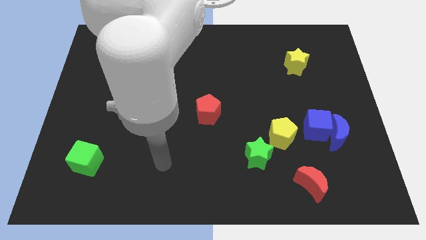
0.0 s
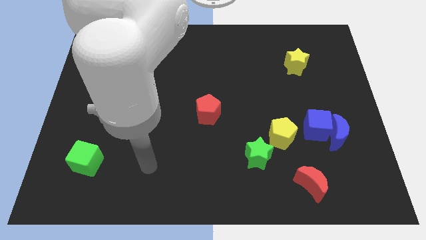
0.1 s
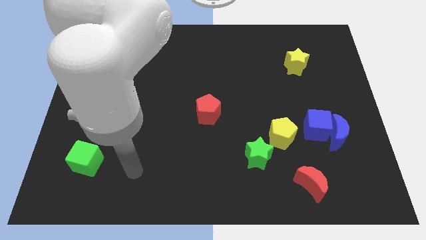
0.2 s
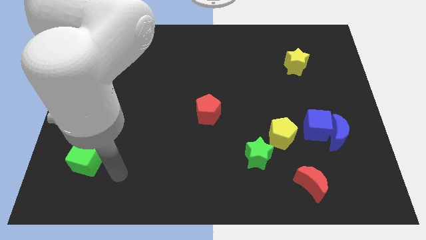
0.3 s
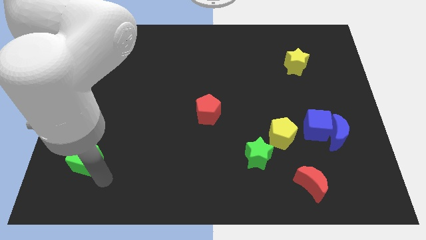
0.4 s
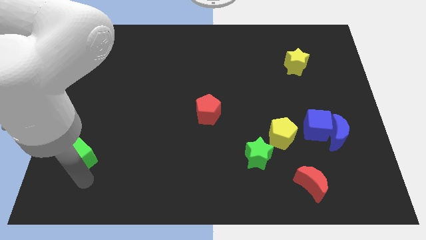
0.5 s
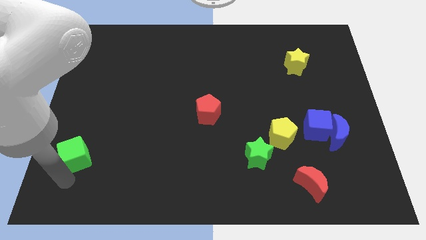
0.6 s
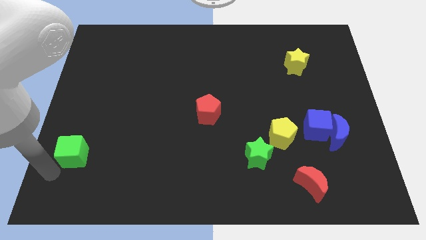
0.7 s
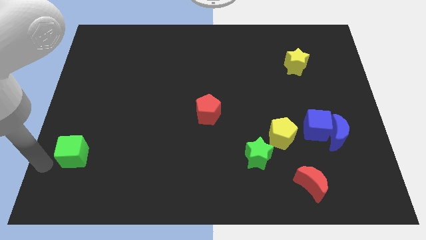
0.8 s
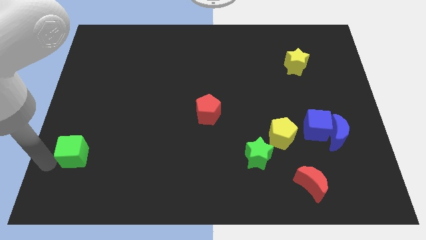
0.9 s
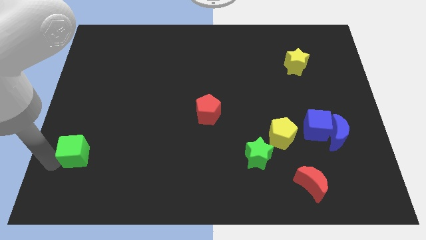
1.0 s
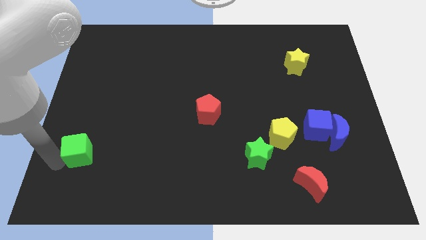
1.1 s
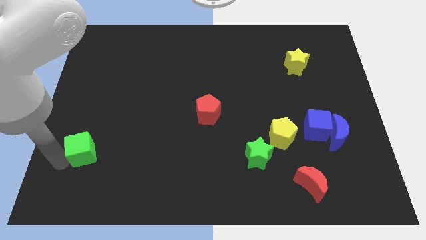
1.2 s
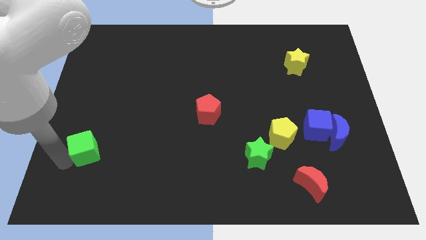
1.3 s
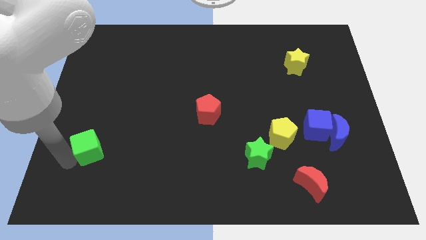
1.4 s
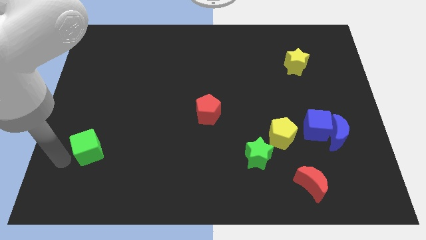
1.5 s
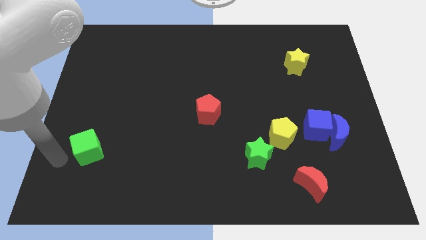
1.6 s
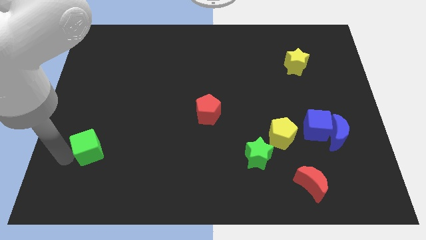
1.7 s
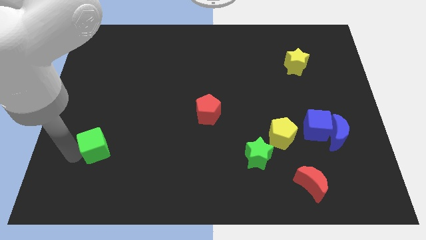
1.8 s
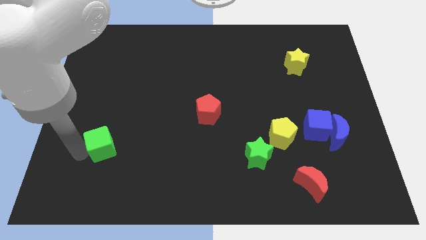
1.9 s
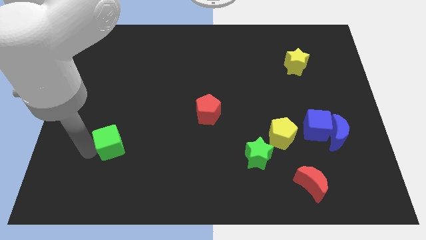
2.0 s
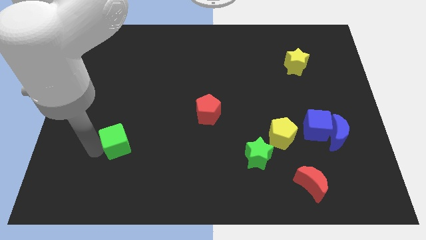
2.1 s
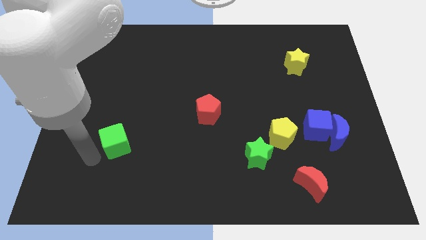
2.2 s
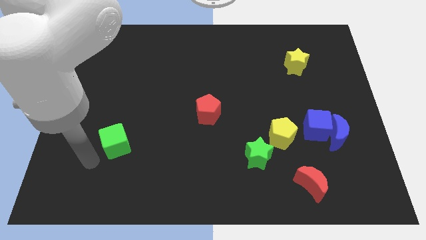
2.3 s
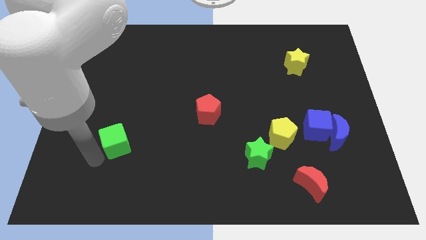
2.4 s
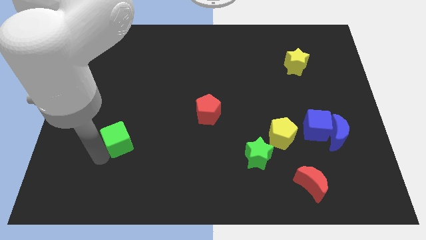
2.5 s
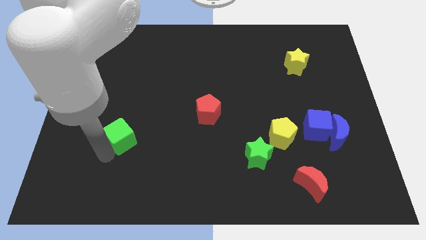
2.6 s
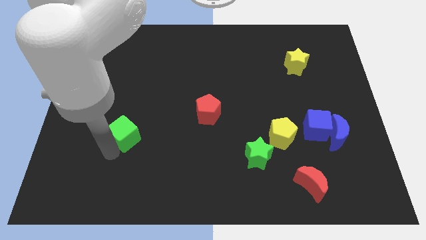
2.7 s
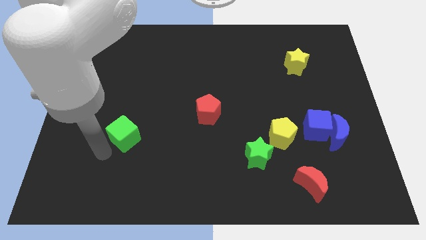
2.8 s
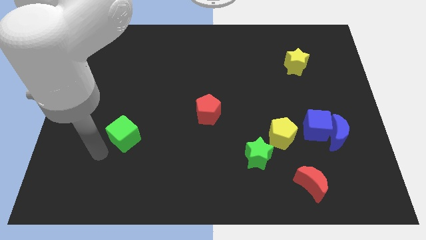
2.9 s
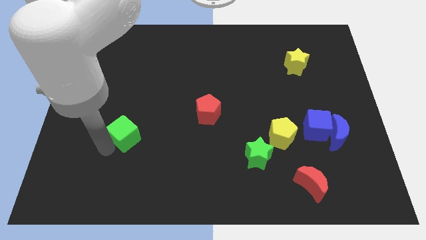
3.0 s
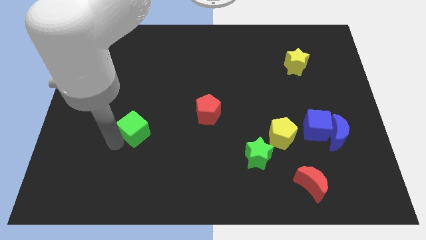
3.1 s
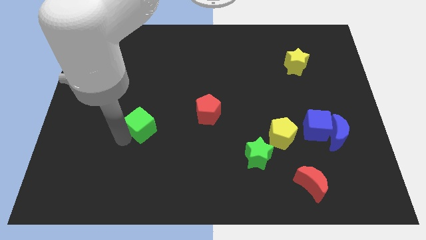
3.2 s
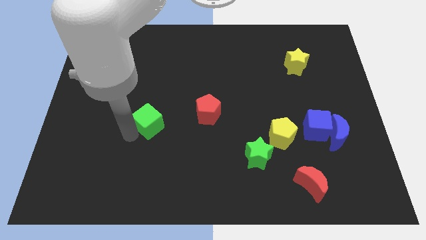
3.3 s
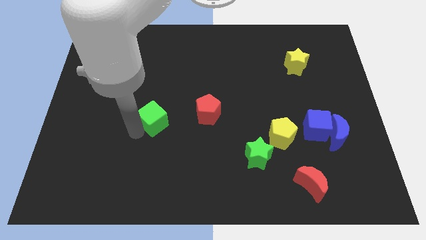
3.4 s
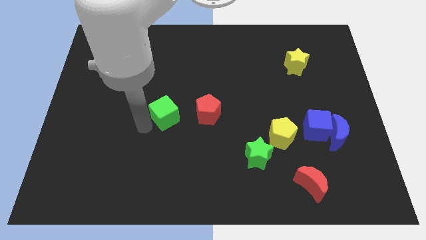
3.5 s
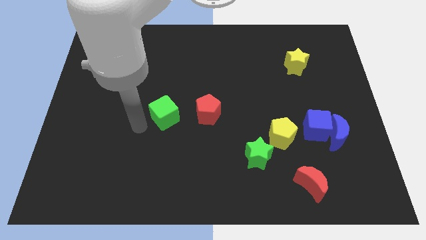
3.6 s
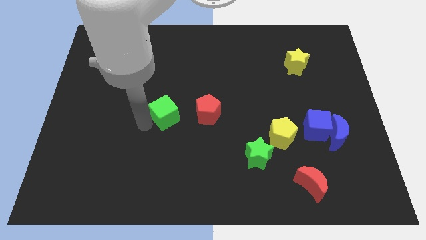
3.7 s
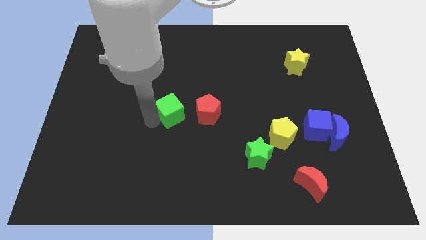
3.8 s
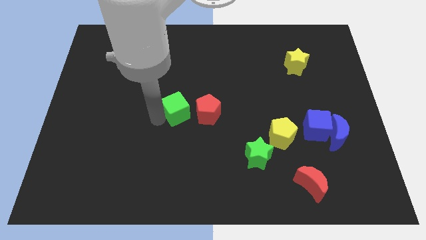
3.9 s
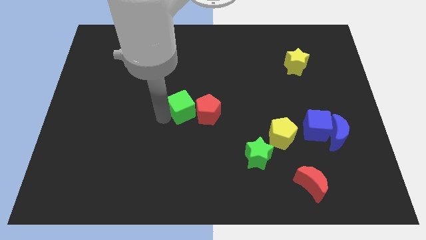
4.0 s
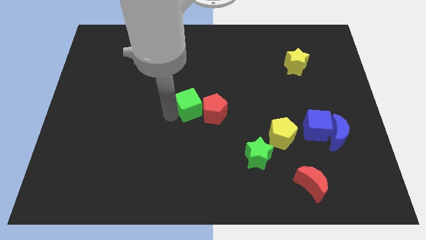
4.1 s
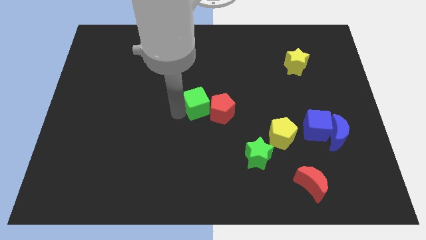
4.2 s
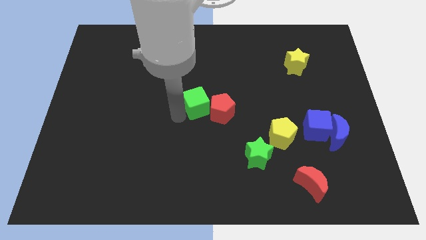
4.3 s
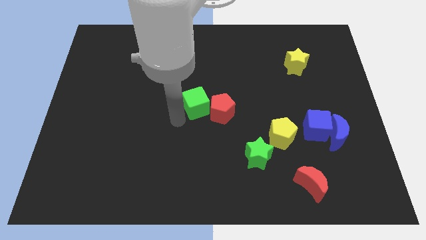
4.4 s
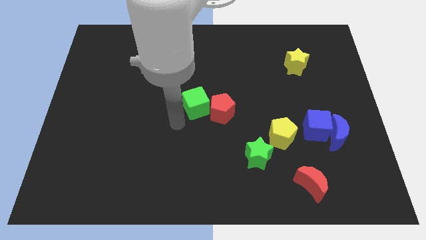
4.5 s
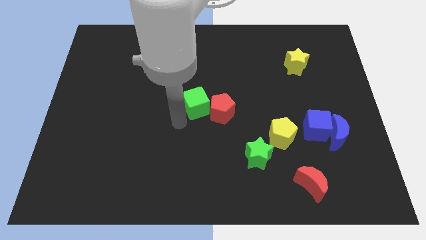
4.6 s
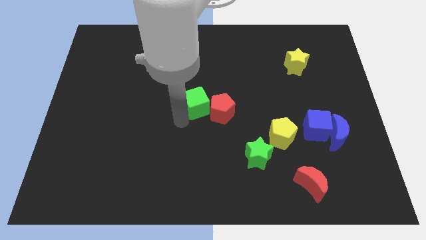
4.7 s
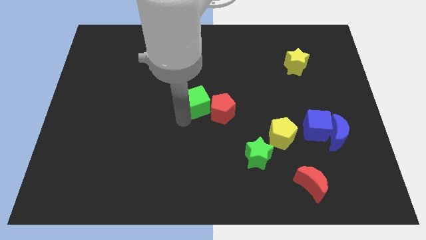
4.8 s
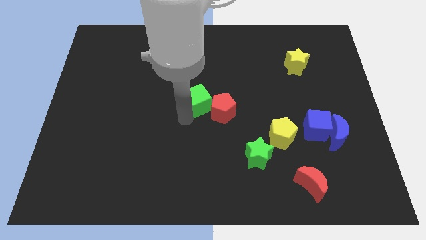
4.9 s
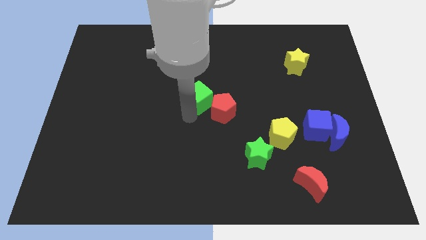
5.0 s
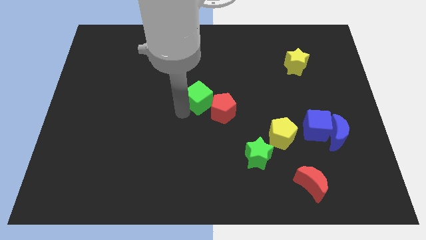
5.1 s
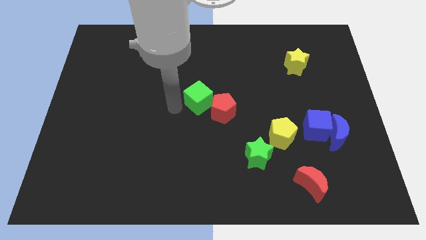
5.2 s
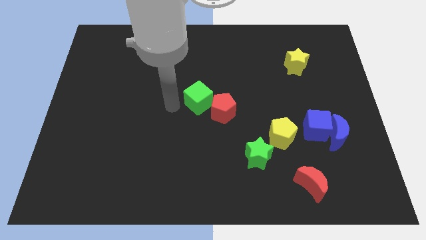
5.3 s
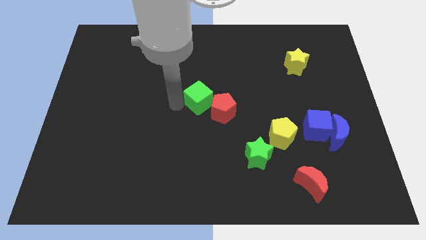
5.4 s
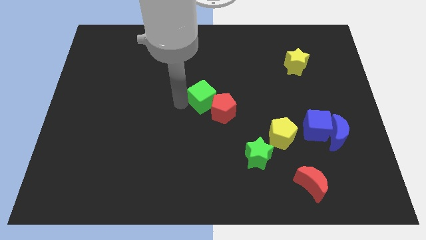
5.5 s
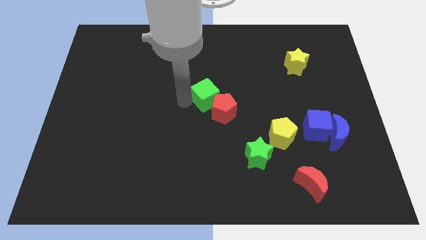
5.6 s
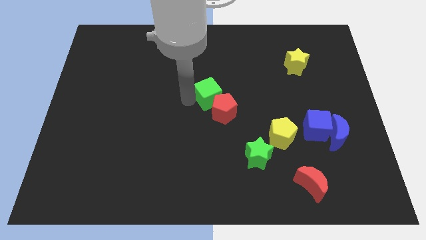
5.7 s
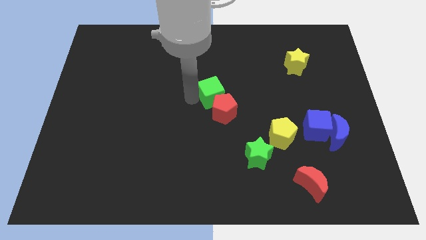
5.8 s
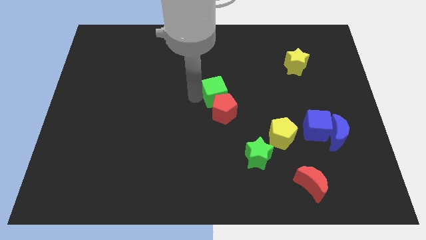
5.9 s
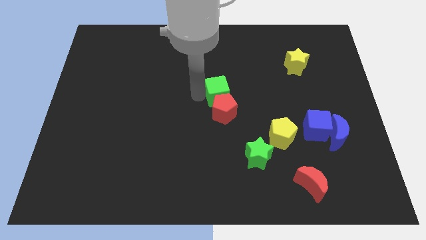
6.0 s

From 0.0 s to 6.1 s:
move the green cube diagonally up and to the right of the red pentagon

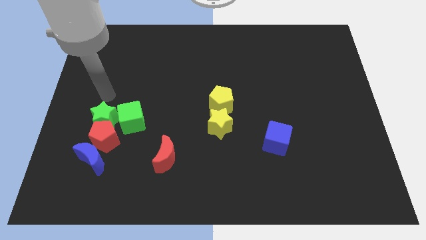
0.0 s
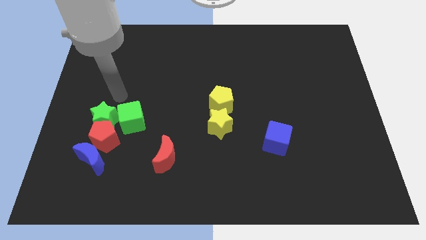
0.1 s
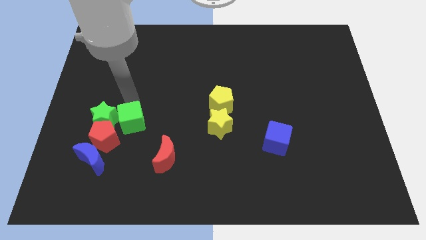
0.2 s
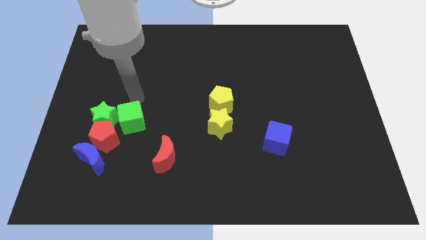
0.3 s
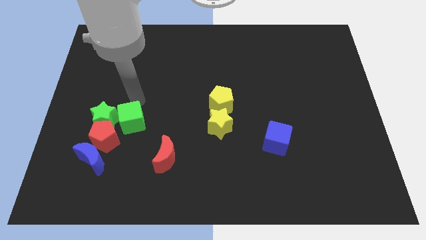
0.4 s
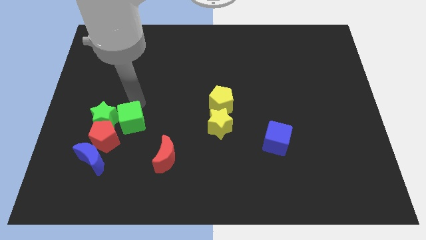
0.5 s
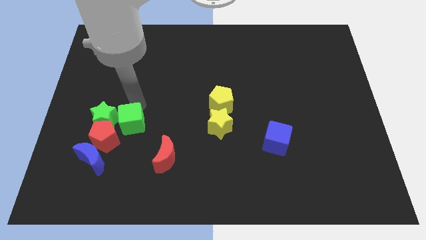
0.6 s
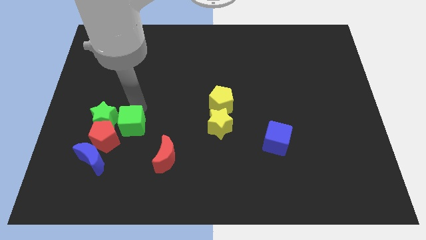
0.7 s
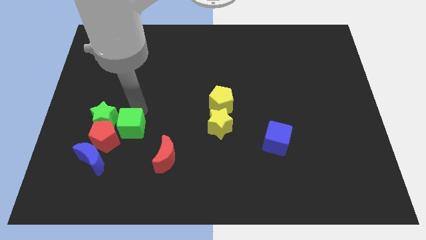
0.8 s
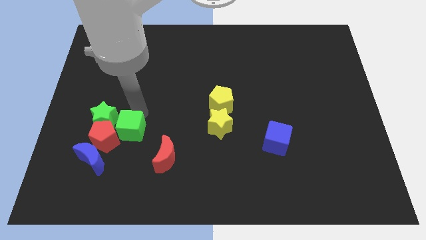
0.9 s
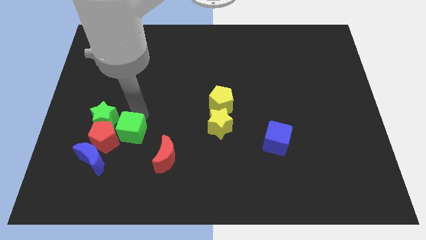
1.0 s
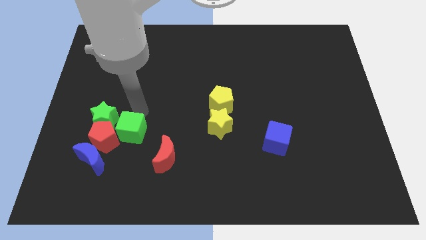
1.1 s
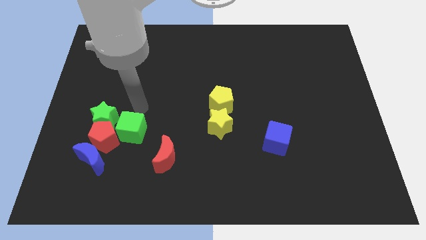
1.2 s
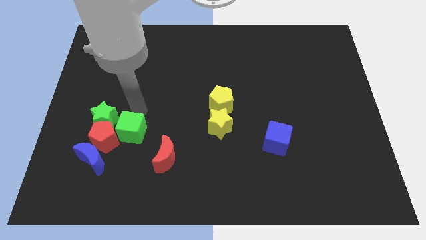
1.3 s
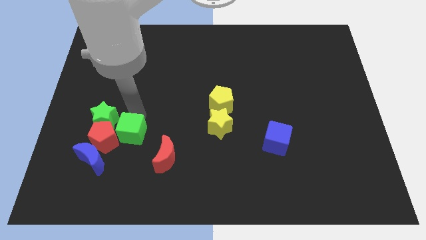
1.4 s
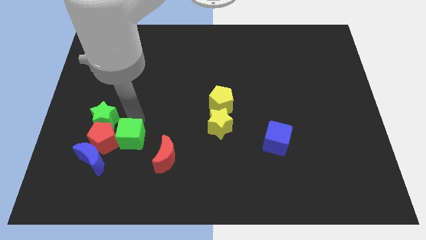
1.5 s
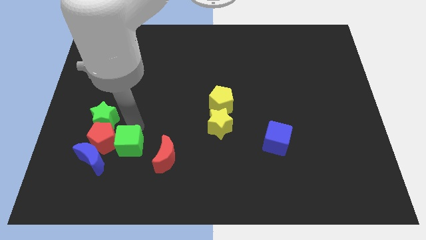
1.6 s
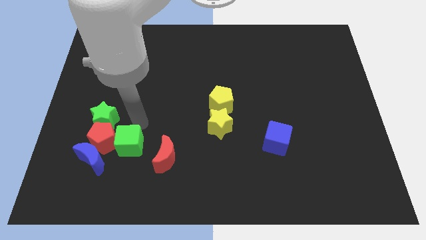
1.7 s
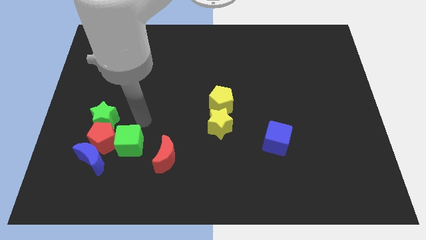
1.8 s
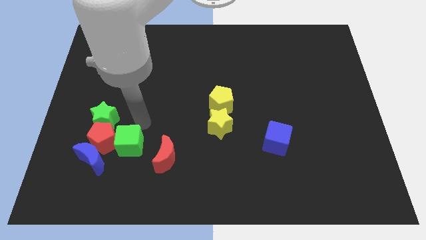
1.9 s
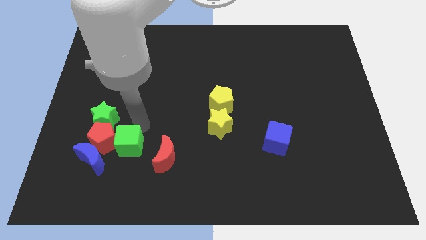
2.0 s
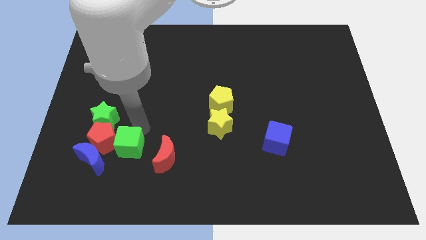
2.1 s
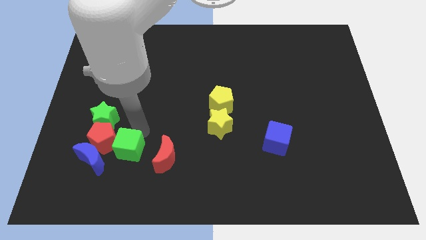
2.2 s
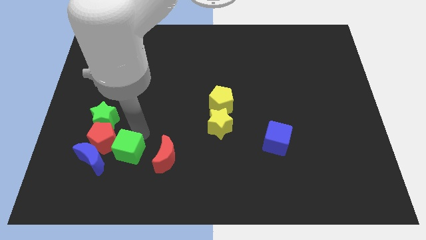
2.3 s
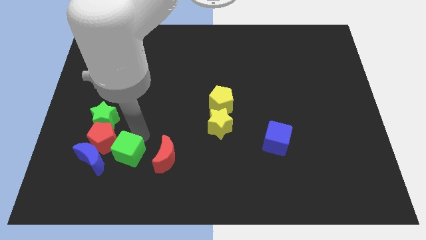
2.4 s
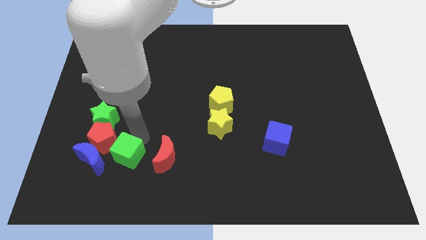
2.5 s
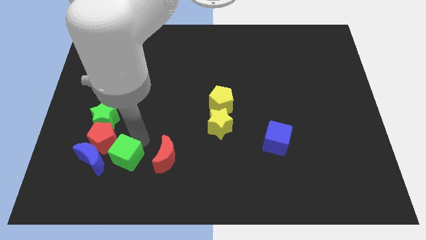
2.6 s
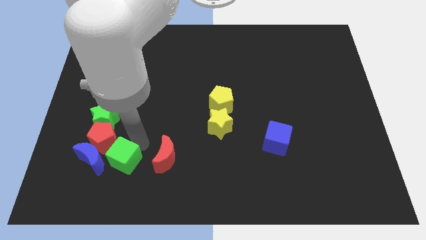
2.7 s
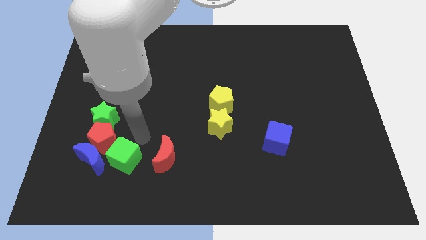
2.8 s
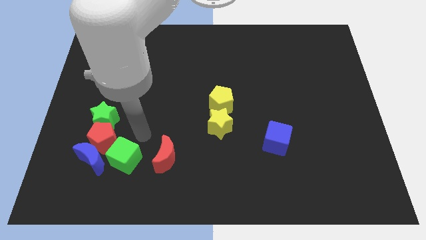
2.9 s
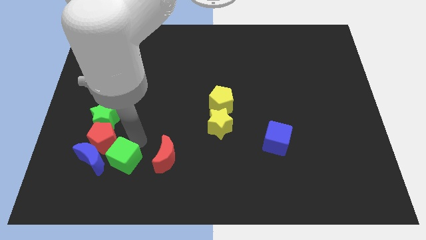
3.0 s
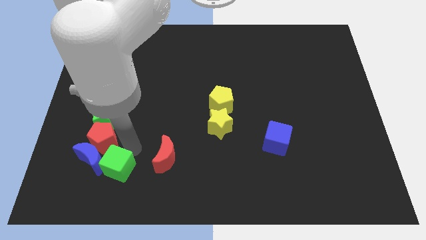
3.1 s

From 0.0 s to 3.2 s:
push the green cube to the bottom side of the green star
